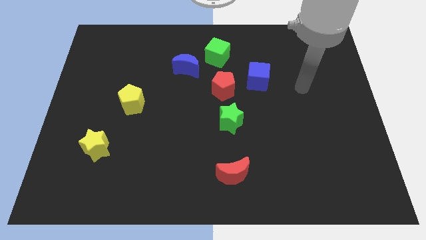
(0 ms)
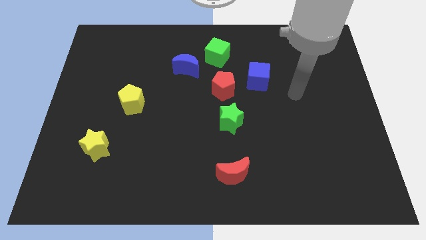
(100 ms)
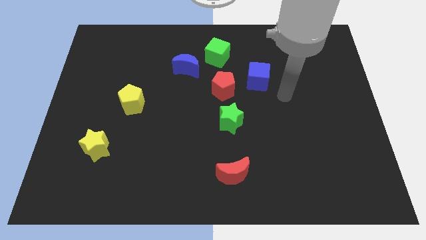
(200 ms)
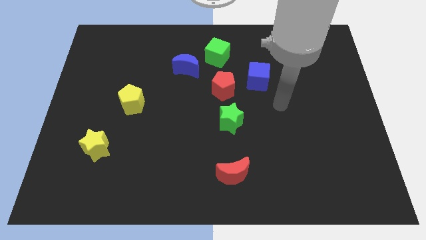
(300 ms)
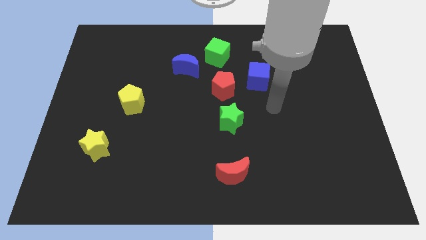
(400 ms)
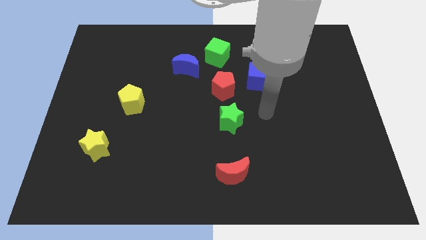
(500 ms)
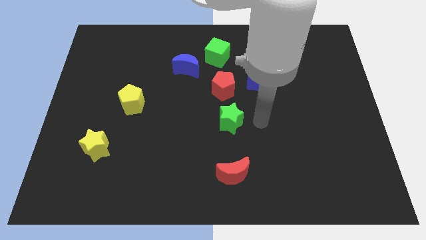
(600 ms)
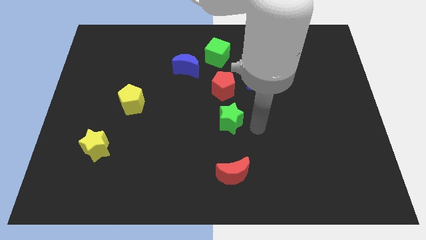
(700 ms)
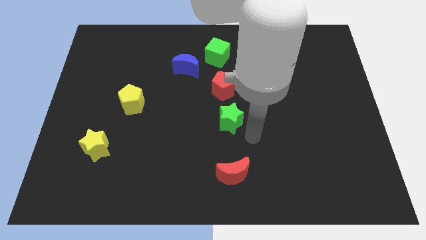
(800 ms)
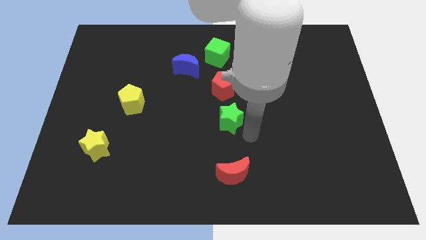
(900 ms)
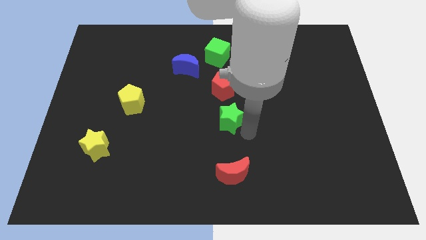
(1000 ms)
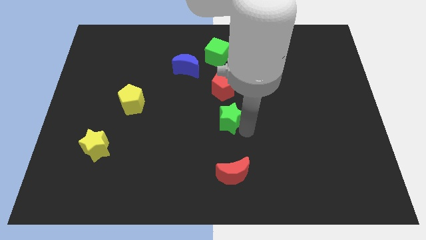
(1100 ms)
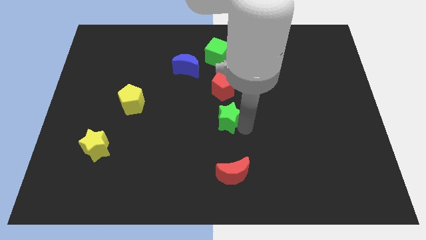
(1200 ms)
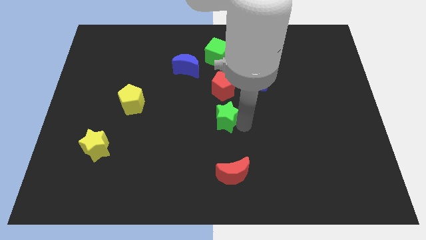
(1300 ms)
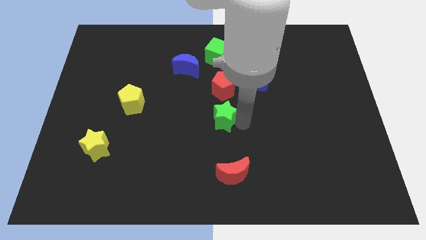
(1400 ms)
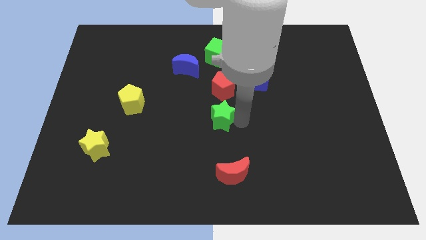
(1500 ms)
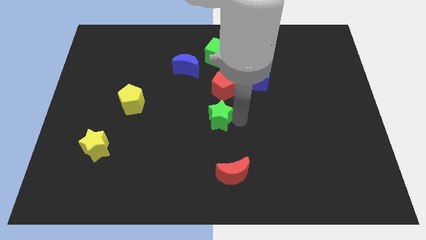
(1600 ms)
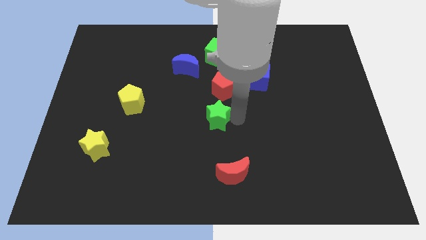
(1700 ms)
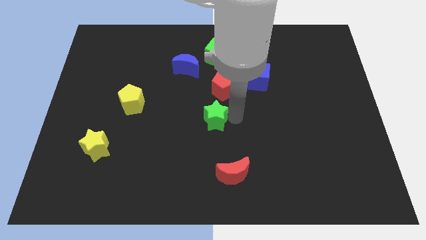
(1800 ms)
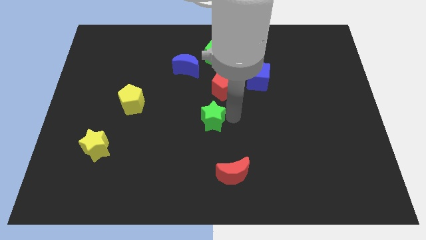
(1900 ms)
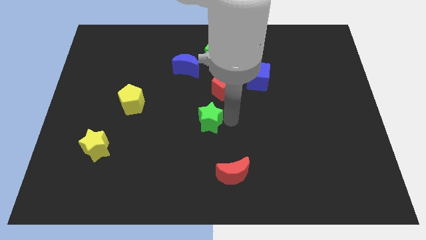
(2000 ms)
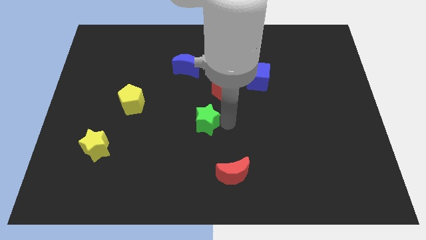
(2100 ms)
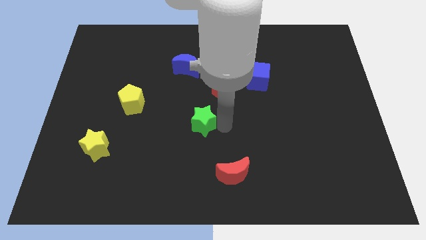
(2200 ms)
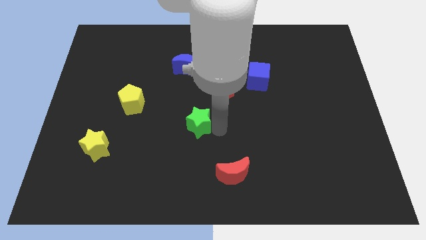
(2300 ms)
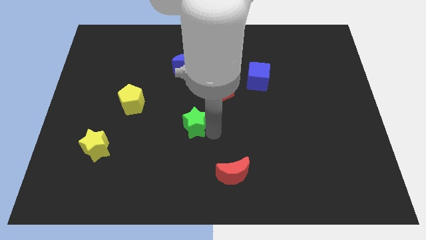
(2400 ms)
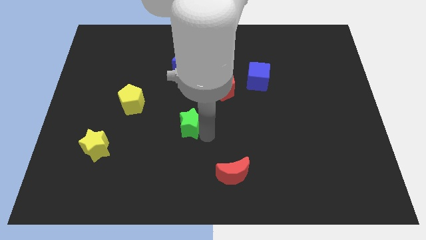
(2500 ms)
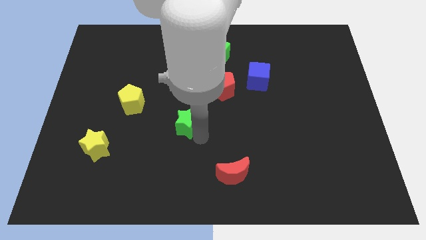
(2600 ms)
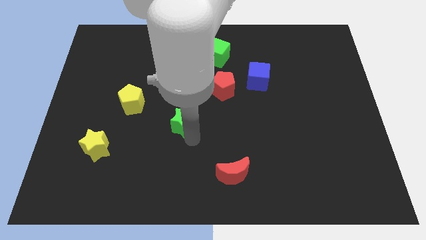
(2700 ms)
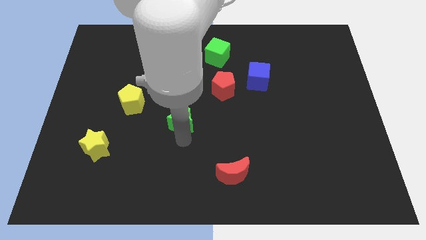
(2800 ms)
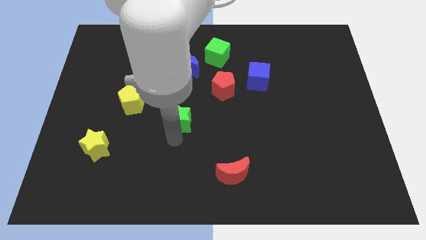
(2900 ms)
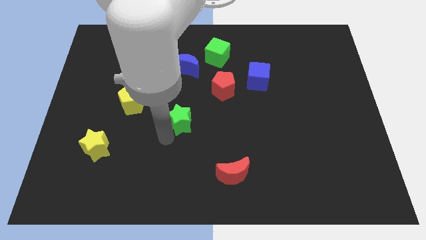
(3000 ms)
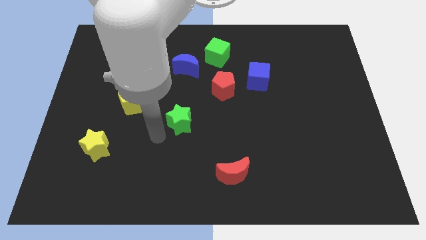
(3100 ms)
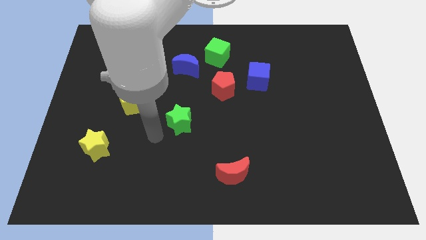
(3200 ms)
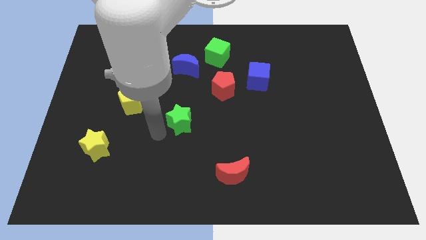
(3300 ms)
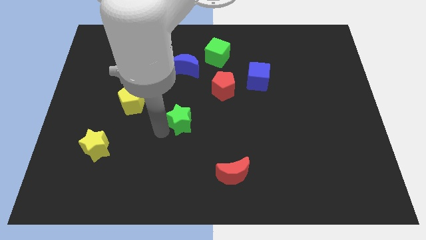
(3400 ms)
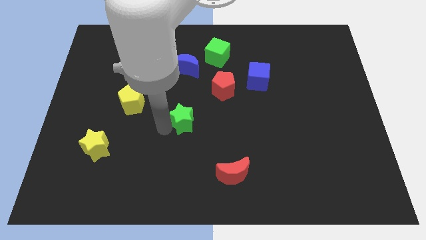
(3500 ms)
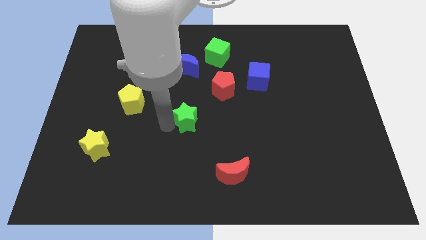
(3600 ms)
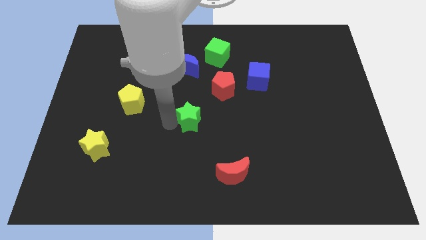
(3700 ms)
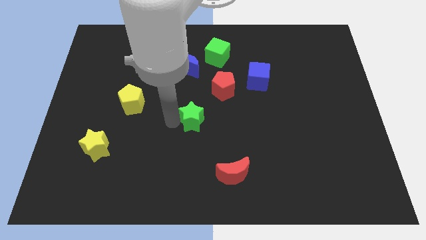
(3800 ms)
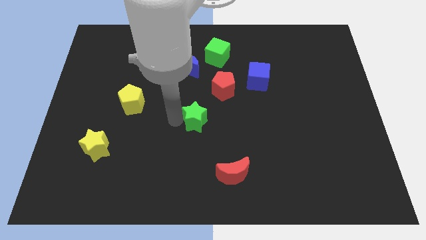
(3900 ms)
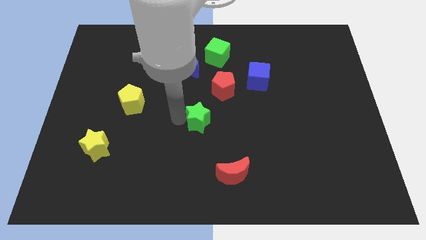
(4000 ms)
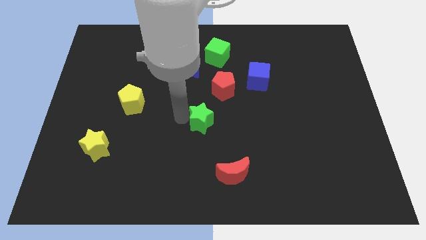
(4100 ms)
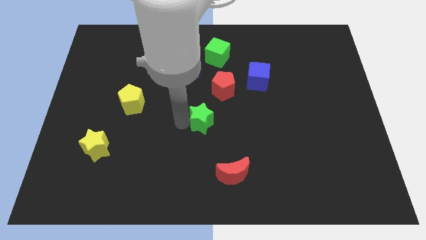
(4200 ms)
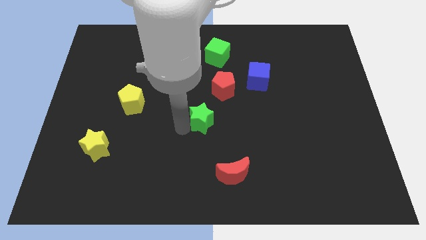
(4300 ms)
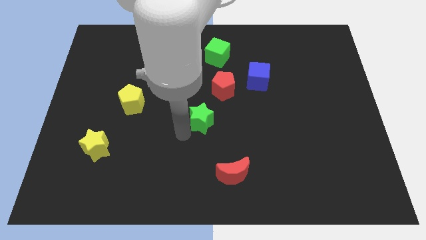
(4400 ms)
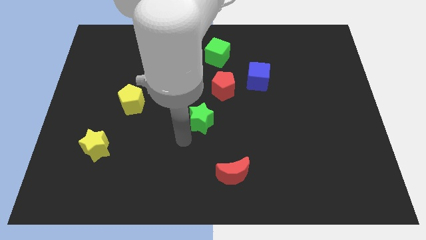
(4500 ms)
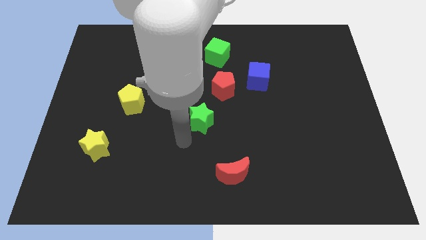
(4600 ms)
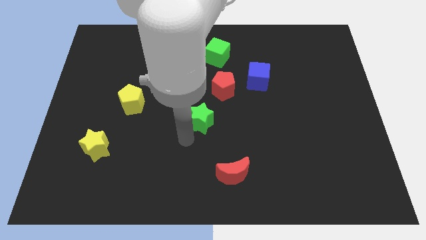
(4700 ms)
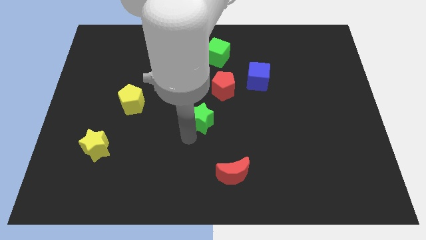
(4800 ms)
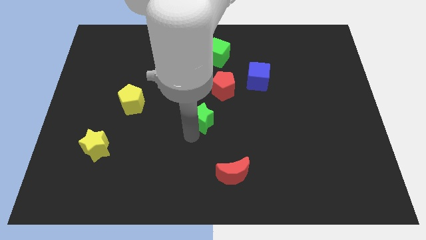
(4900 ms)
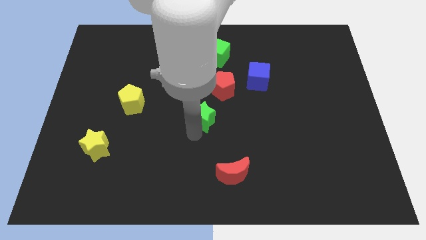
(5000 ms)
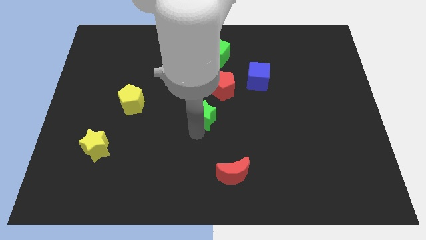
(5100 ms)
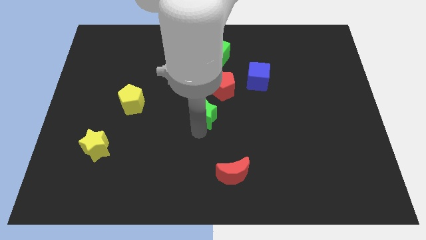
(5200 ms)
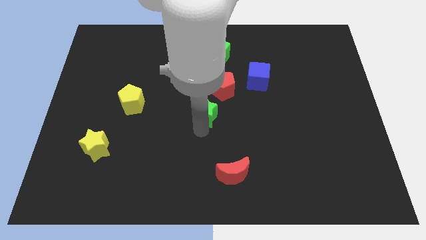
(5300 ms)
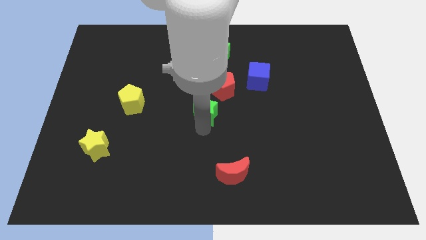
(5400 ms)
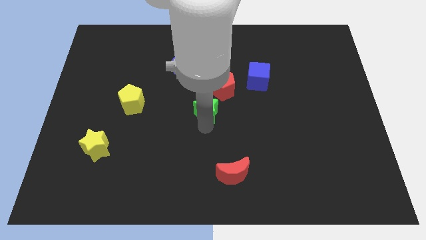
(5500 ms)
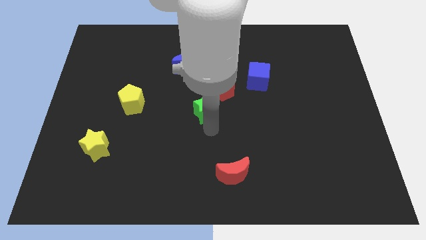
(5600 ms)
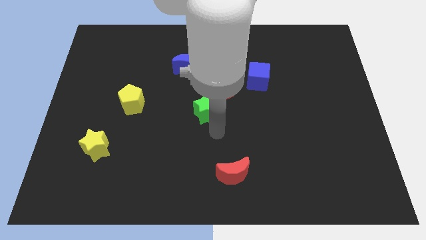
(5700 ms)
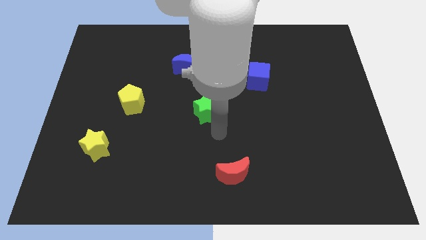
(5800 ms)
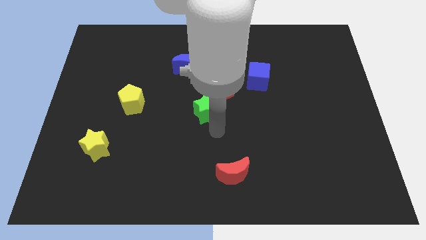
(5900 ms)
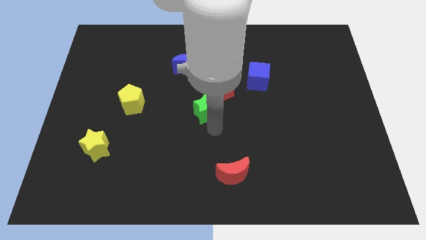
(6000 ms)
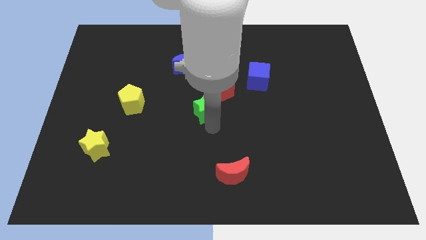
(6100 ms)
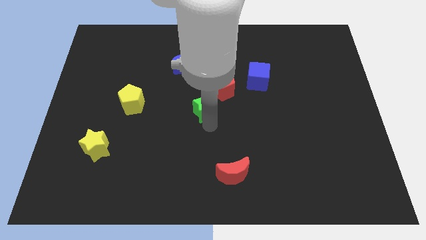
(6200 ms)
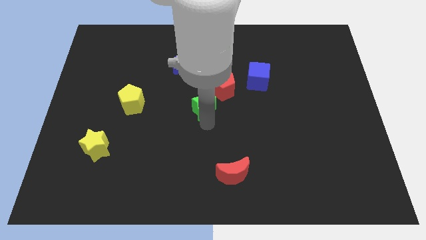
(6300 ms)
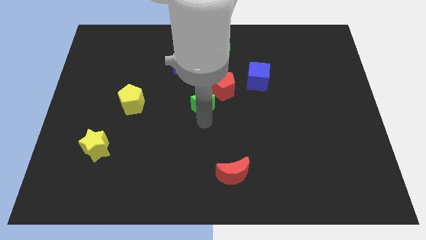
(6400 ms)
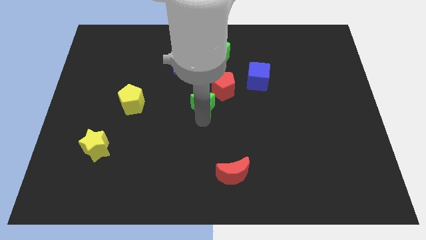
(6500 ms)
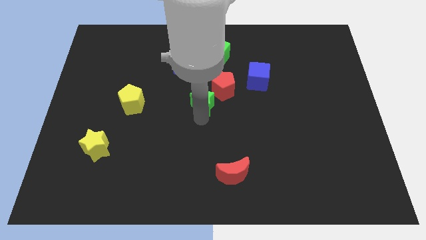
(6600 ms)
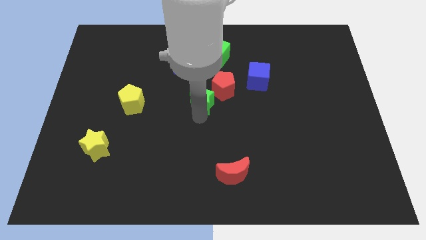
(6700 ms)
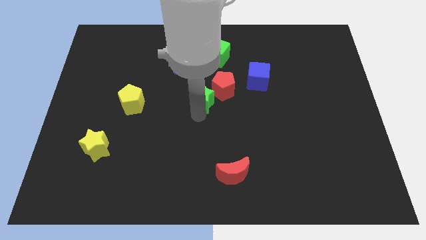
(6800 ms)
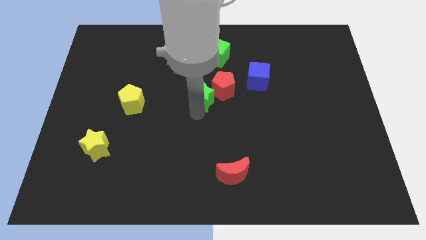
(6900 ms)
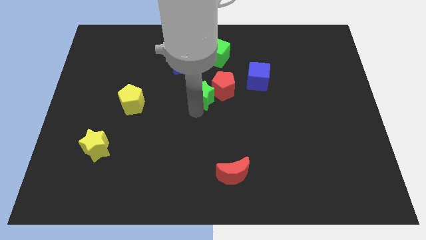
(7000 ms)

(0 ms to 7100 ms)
put the green star to the bottom right side of the blue moon
